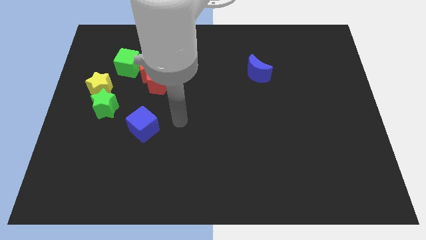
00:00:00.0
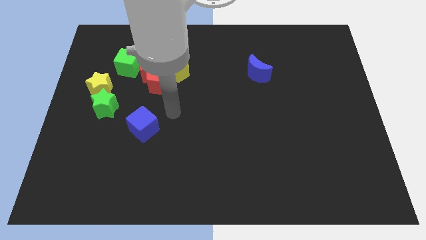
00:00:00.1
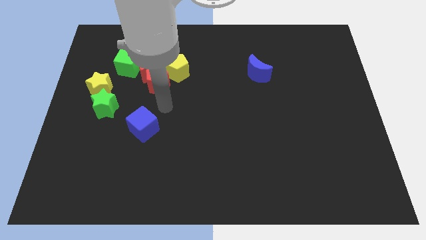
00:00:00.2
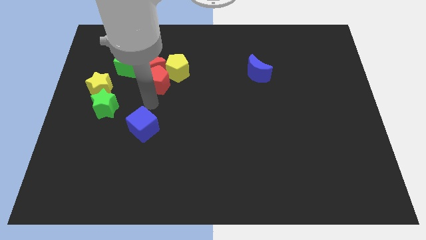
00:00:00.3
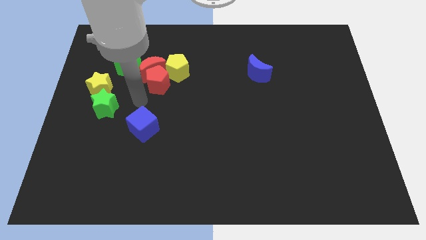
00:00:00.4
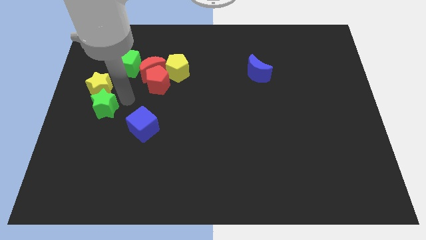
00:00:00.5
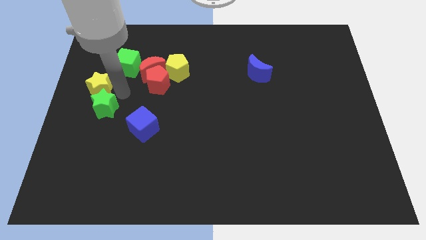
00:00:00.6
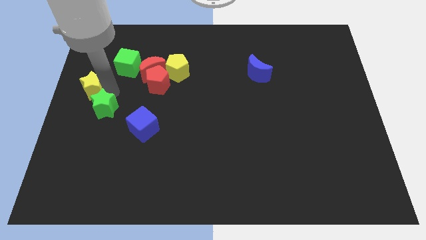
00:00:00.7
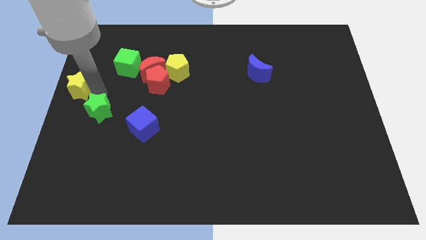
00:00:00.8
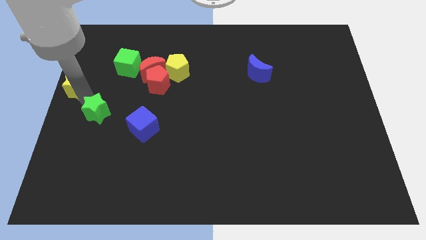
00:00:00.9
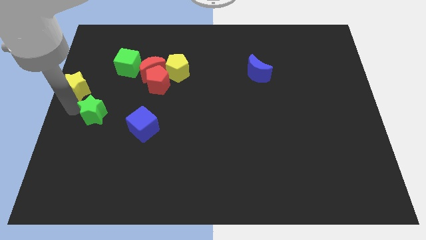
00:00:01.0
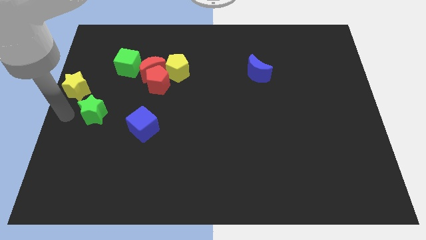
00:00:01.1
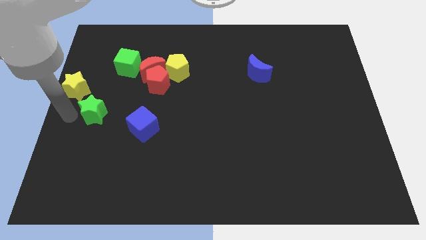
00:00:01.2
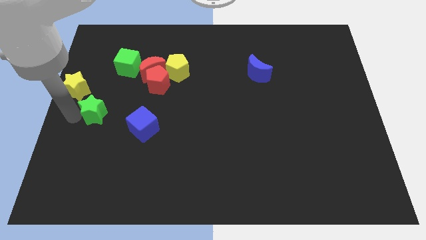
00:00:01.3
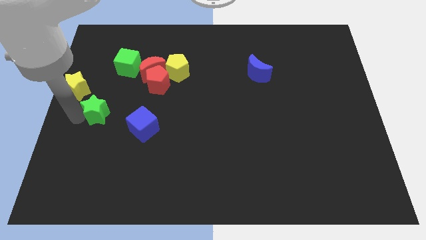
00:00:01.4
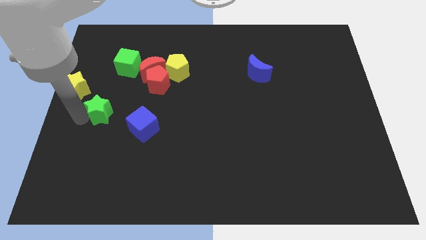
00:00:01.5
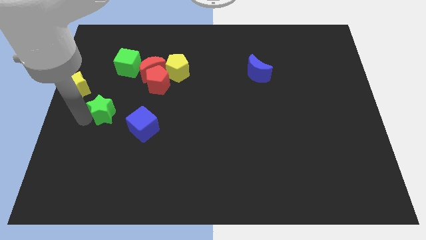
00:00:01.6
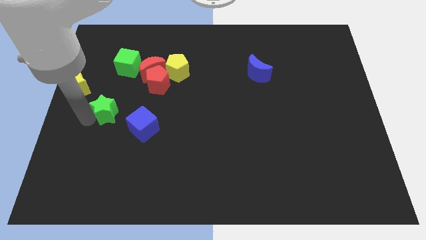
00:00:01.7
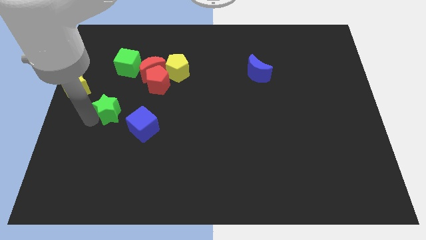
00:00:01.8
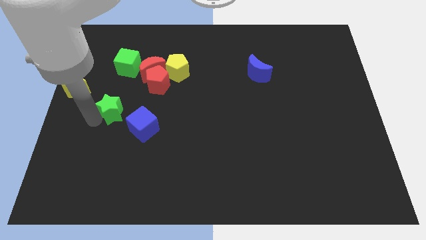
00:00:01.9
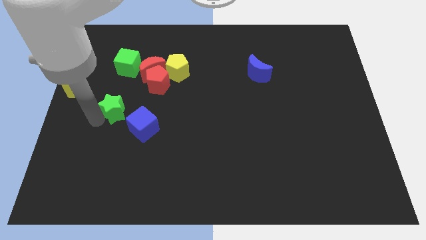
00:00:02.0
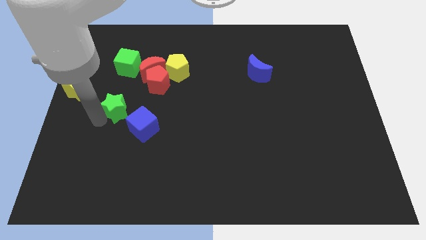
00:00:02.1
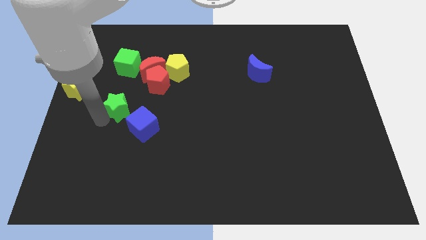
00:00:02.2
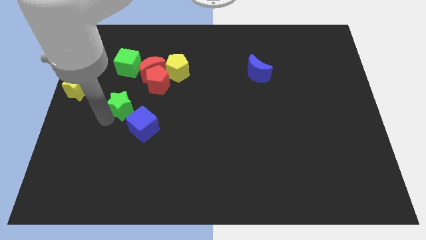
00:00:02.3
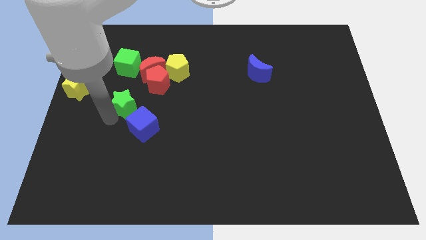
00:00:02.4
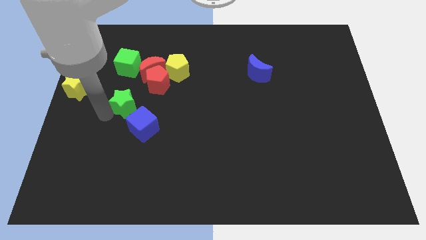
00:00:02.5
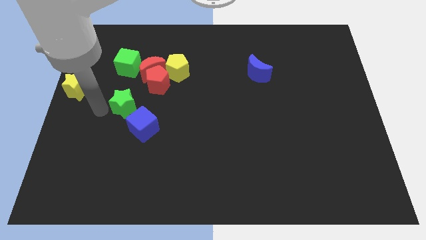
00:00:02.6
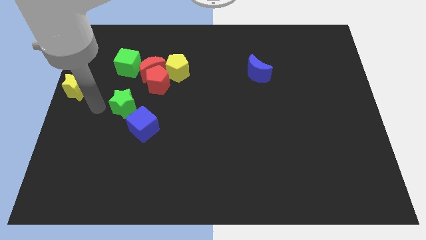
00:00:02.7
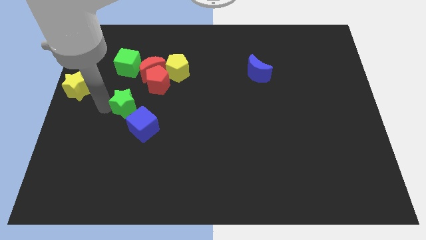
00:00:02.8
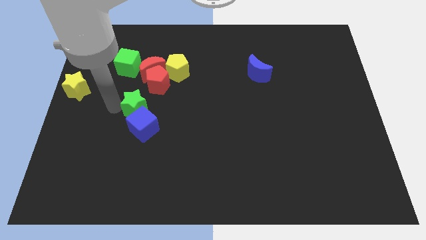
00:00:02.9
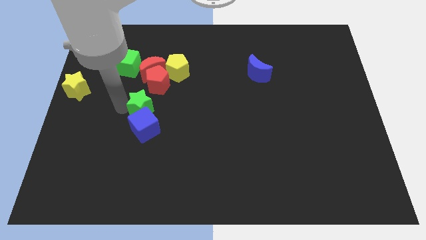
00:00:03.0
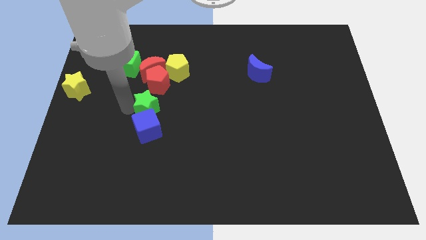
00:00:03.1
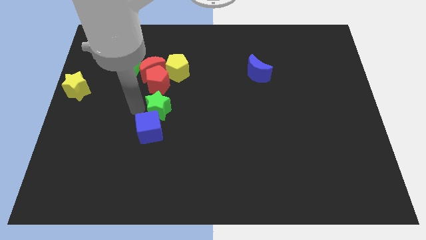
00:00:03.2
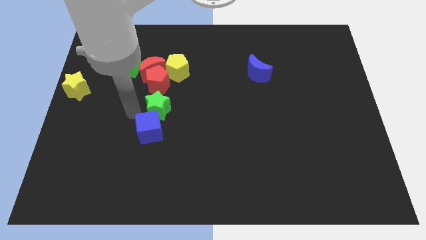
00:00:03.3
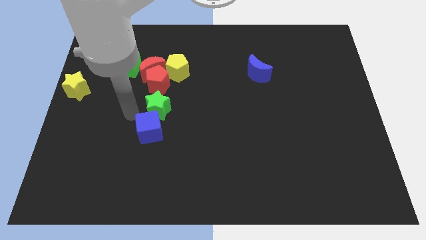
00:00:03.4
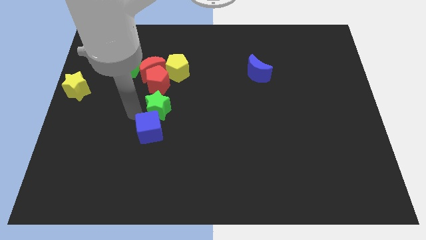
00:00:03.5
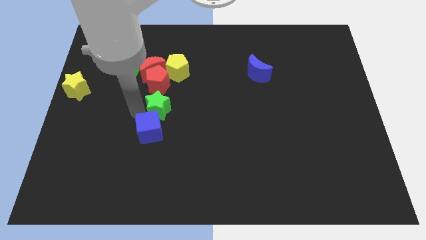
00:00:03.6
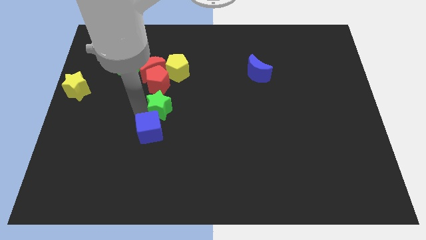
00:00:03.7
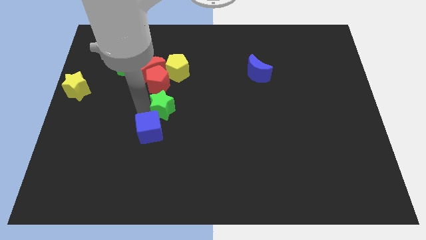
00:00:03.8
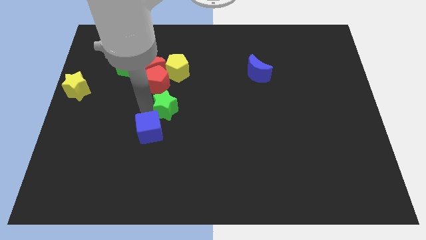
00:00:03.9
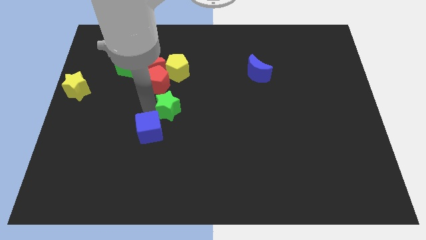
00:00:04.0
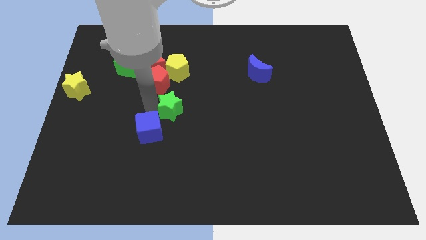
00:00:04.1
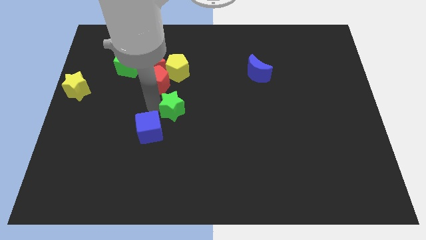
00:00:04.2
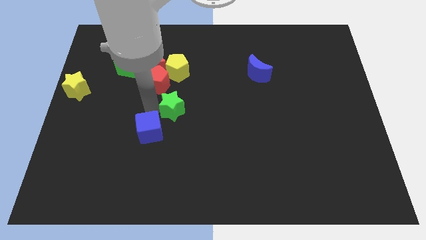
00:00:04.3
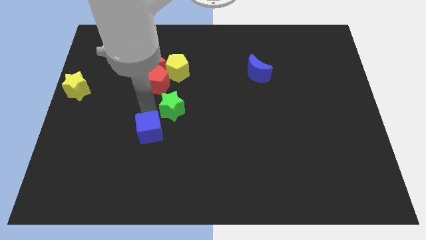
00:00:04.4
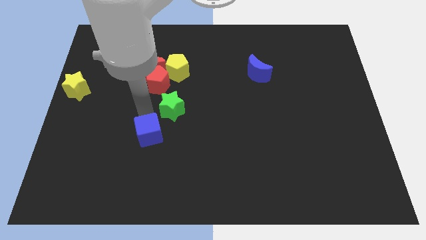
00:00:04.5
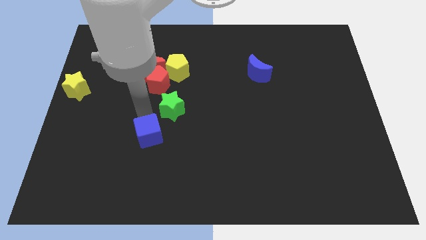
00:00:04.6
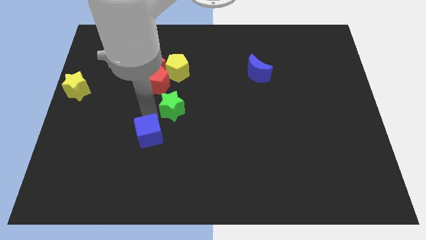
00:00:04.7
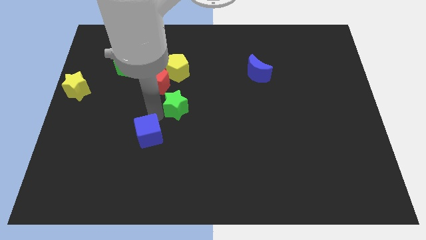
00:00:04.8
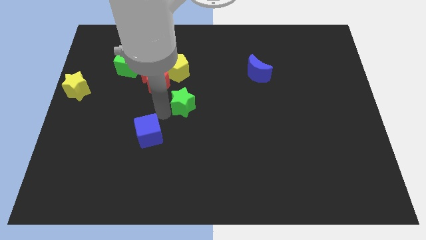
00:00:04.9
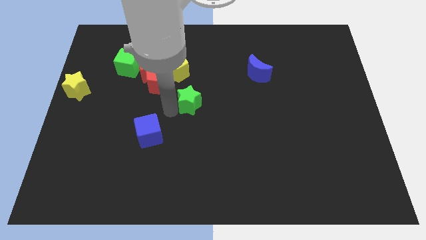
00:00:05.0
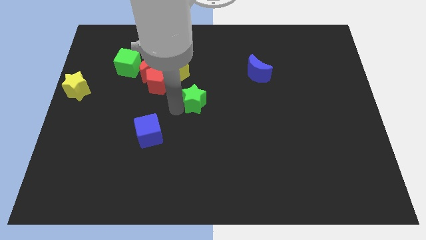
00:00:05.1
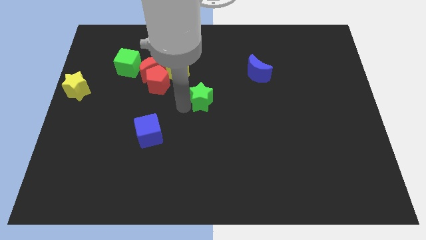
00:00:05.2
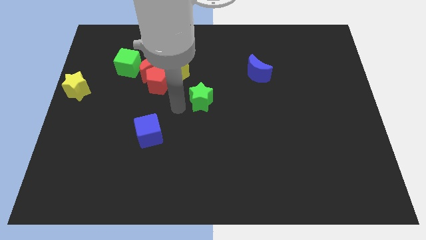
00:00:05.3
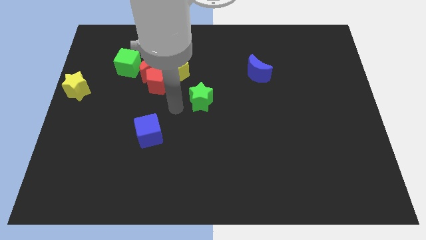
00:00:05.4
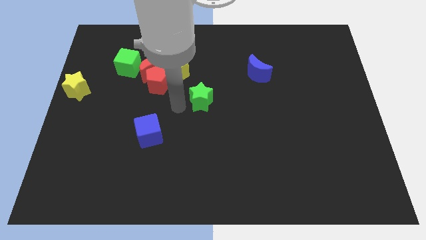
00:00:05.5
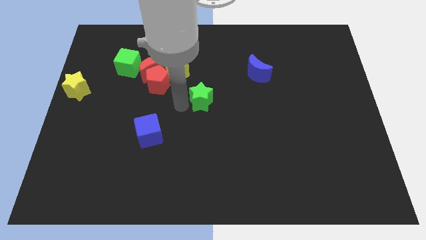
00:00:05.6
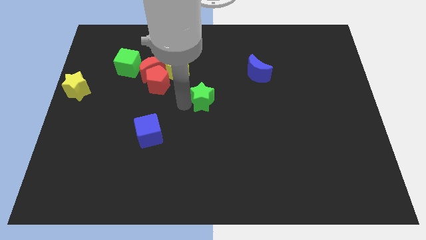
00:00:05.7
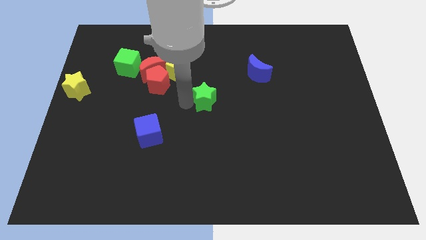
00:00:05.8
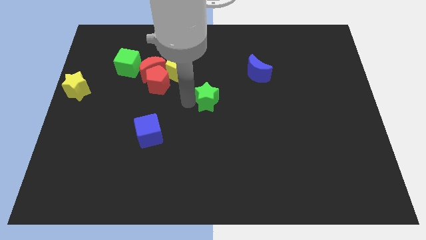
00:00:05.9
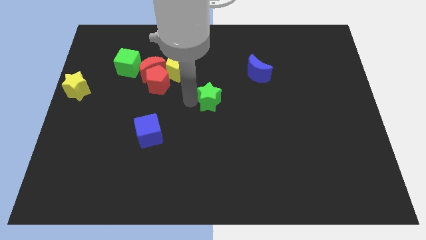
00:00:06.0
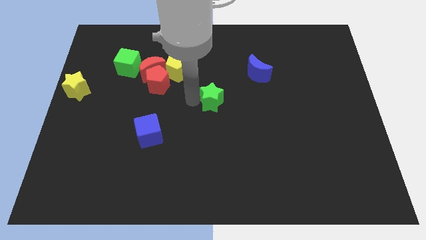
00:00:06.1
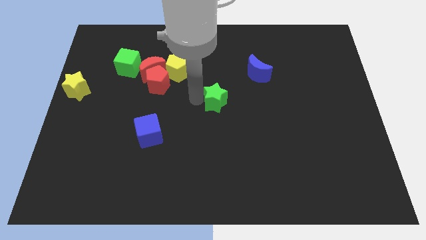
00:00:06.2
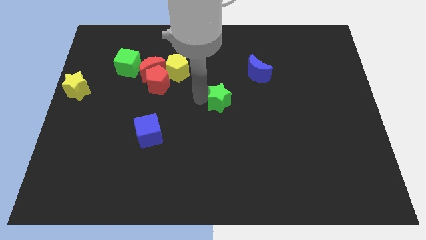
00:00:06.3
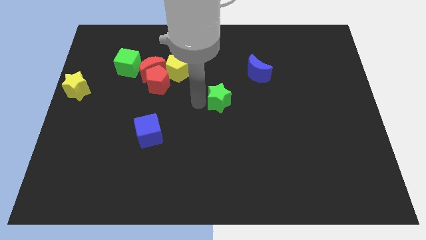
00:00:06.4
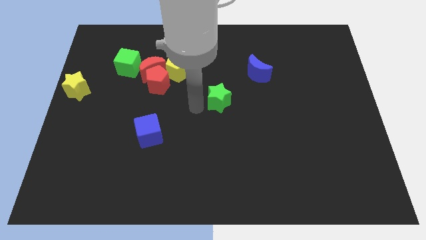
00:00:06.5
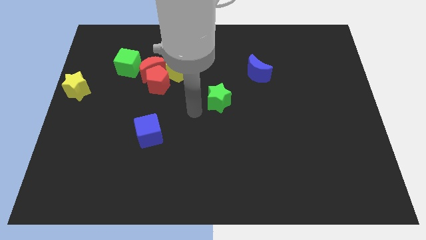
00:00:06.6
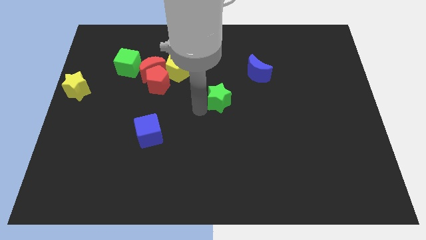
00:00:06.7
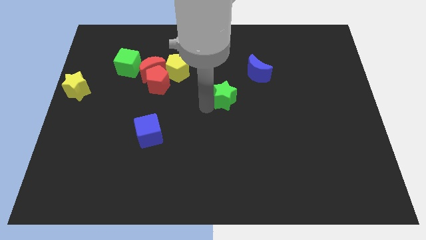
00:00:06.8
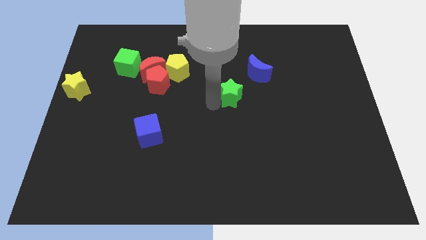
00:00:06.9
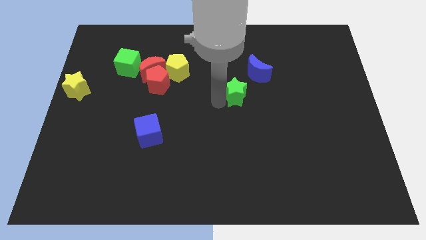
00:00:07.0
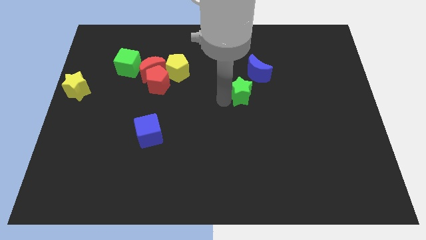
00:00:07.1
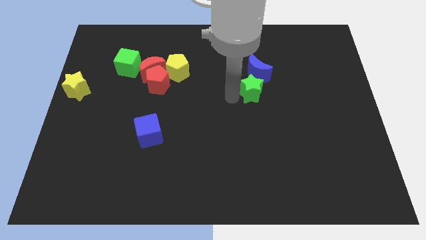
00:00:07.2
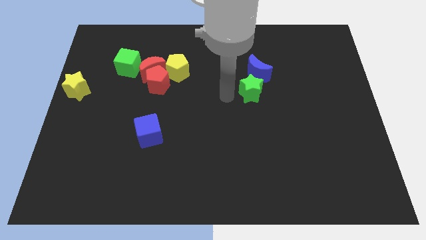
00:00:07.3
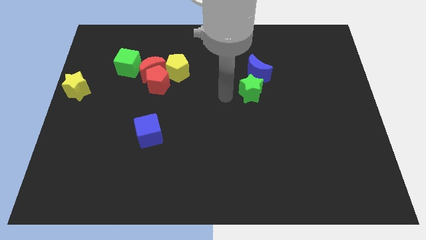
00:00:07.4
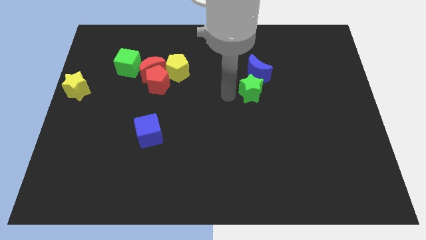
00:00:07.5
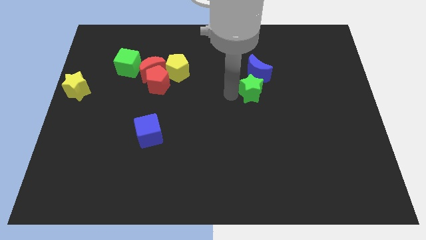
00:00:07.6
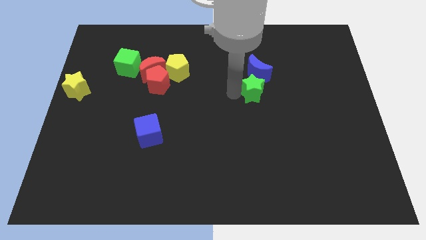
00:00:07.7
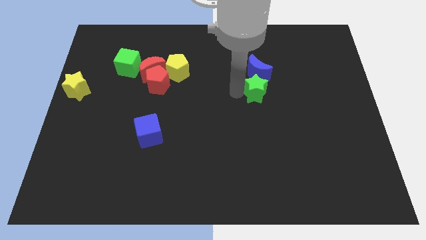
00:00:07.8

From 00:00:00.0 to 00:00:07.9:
move the green star to the bottom right of the blue moon
